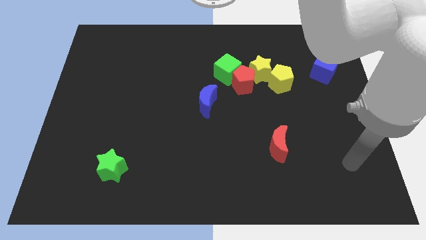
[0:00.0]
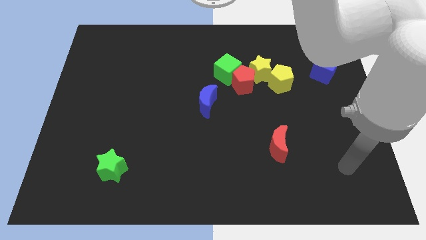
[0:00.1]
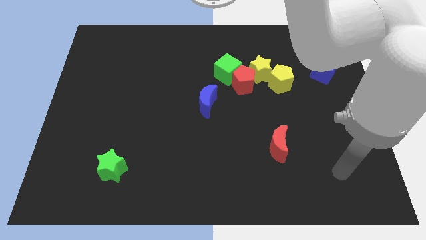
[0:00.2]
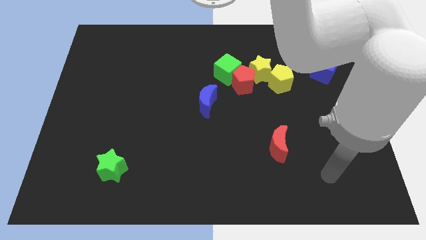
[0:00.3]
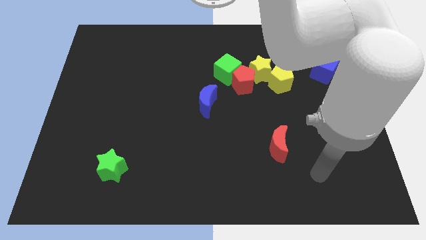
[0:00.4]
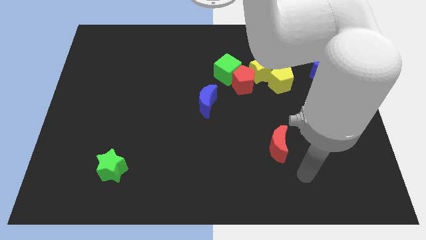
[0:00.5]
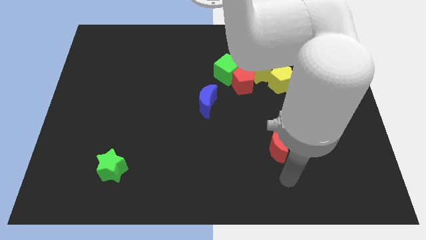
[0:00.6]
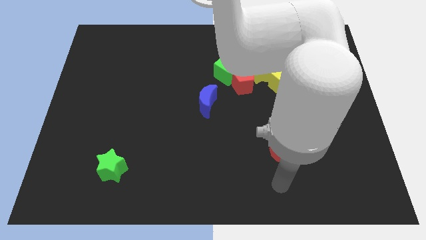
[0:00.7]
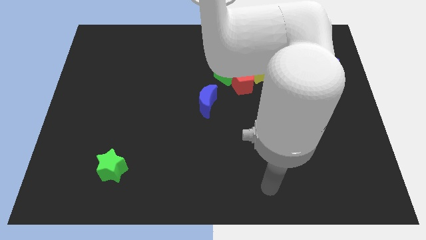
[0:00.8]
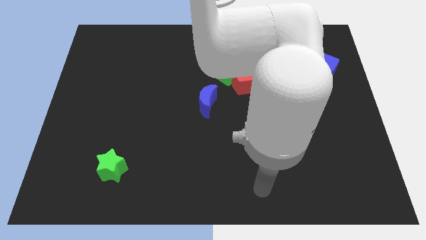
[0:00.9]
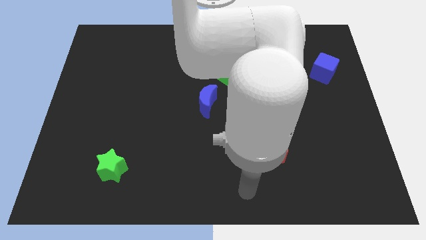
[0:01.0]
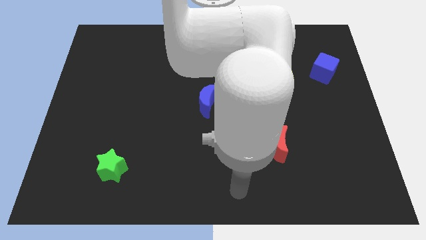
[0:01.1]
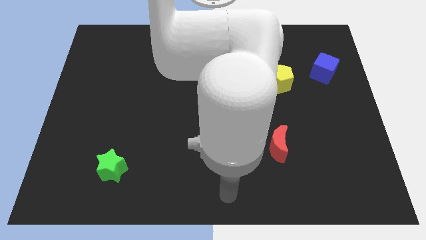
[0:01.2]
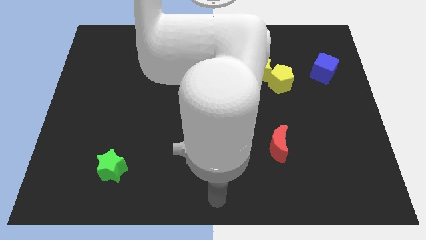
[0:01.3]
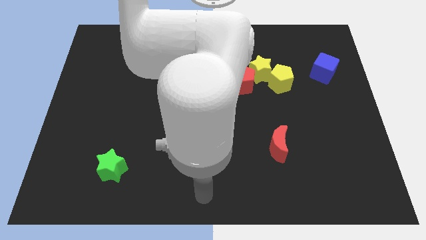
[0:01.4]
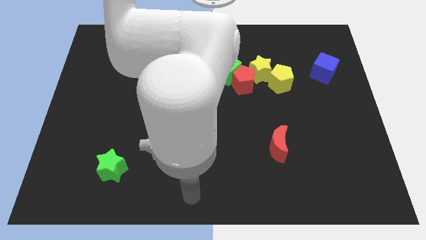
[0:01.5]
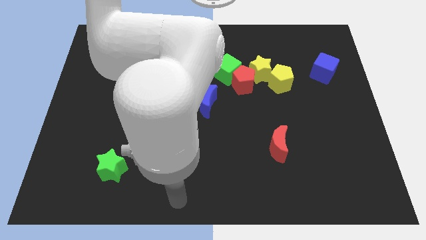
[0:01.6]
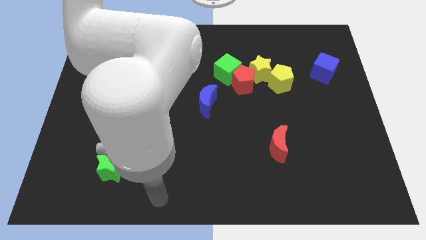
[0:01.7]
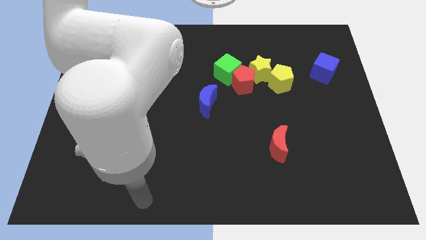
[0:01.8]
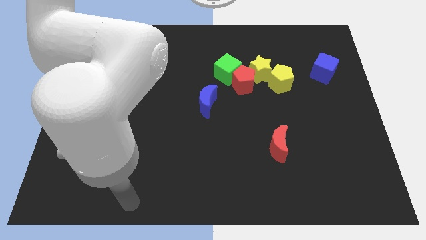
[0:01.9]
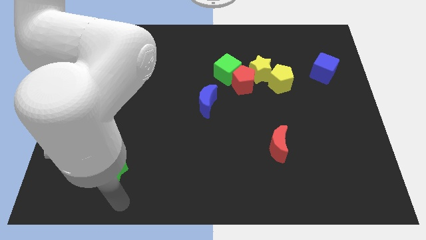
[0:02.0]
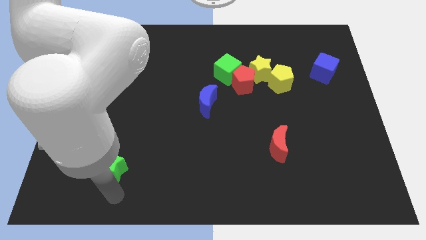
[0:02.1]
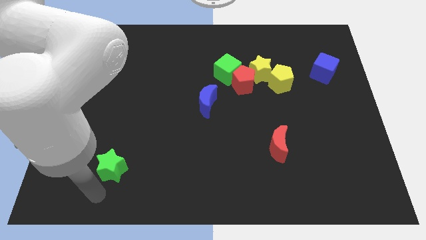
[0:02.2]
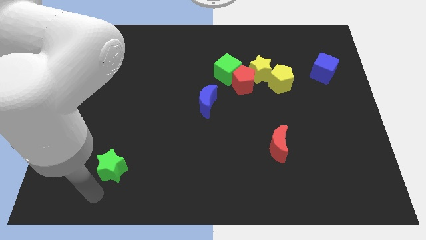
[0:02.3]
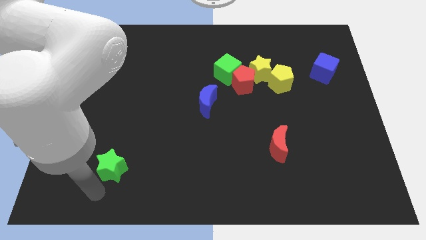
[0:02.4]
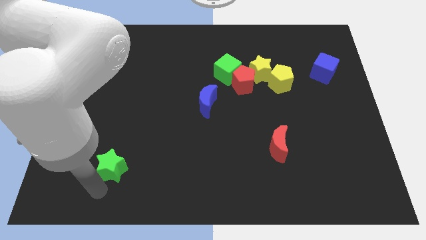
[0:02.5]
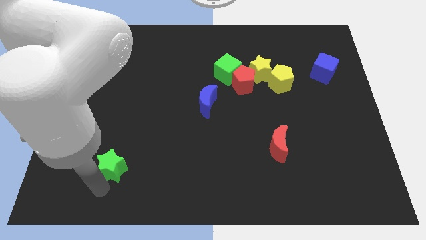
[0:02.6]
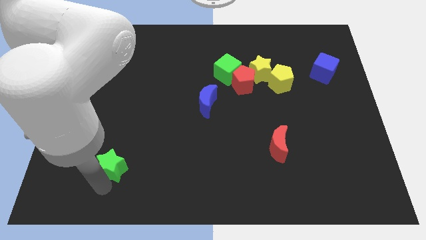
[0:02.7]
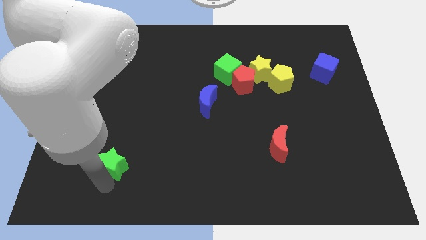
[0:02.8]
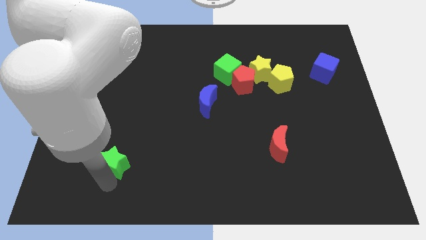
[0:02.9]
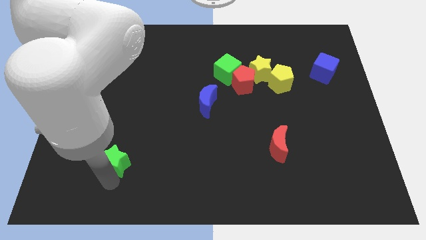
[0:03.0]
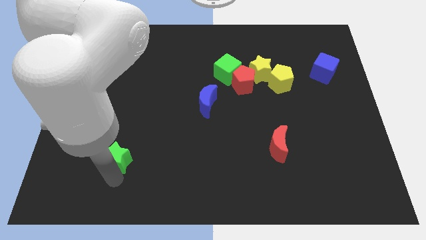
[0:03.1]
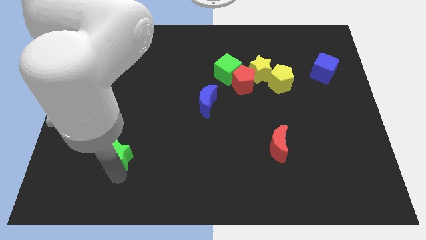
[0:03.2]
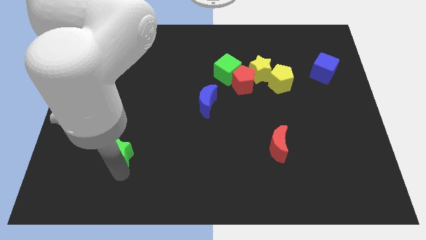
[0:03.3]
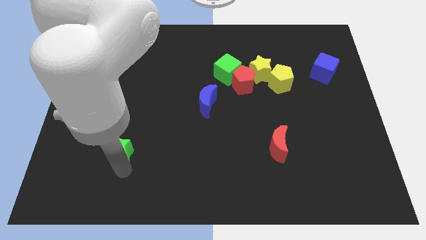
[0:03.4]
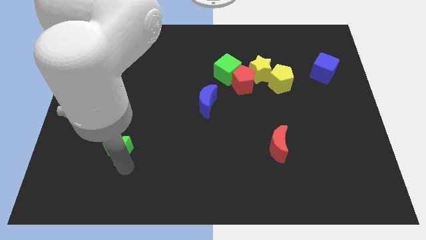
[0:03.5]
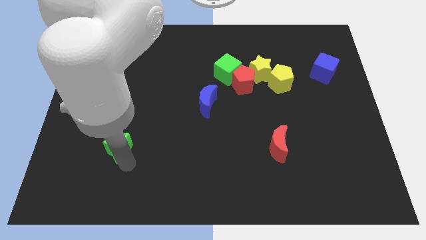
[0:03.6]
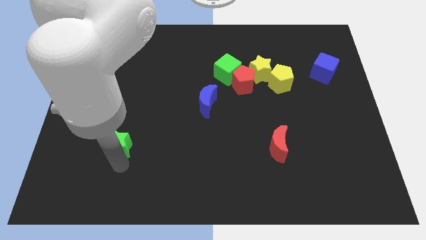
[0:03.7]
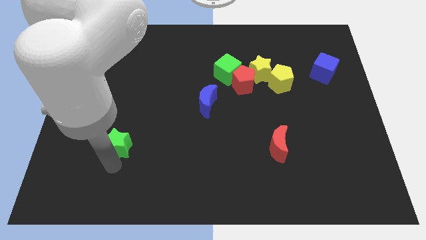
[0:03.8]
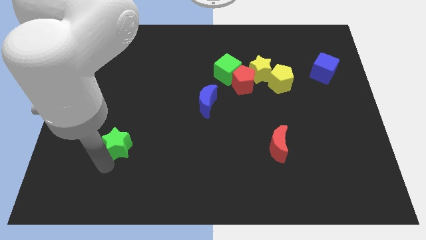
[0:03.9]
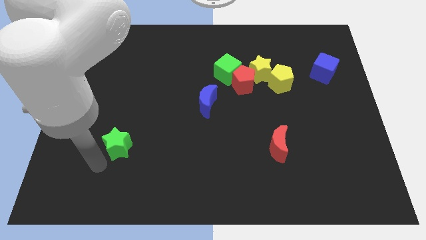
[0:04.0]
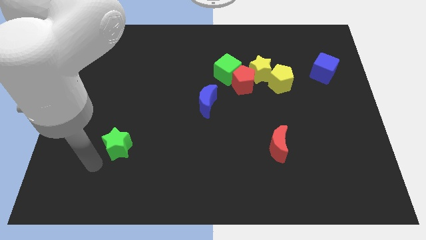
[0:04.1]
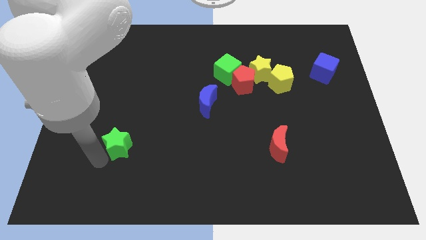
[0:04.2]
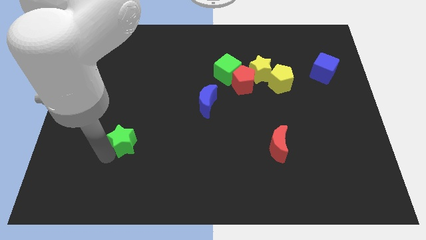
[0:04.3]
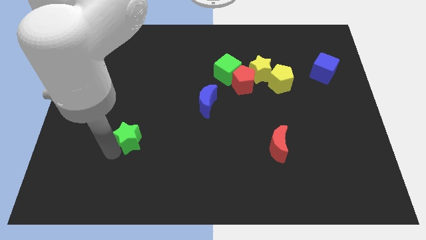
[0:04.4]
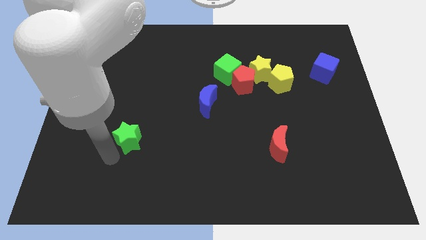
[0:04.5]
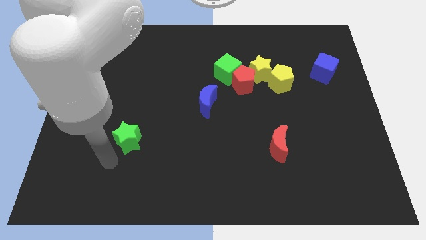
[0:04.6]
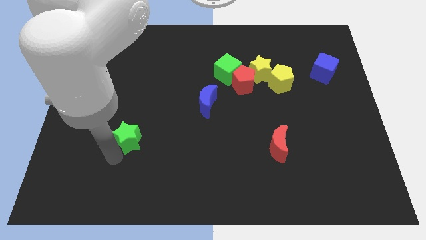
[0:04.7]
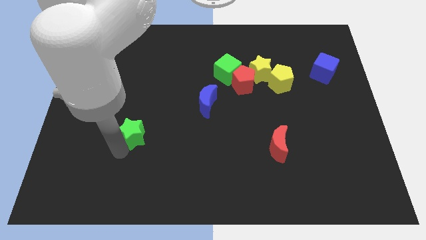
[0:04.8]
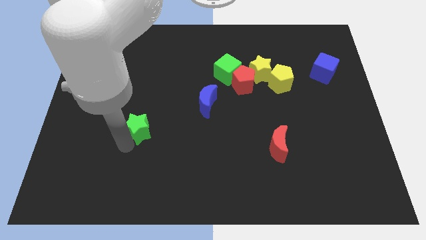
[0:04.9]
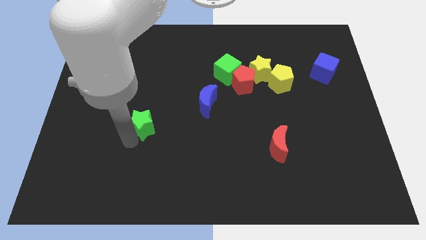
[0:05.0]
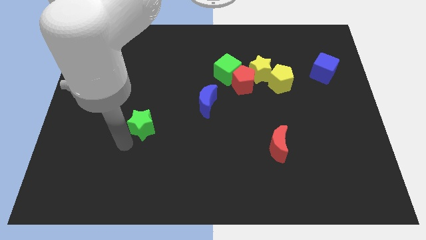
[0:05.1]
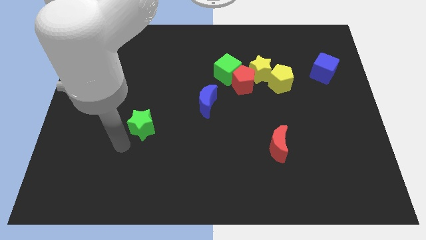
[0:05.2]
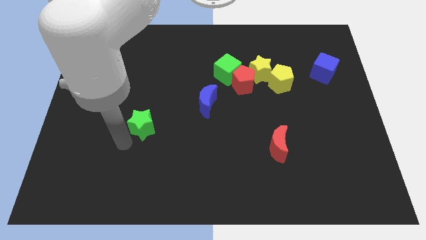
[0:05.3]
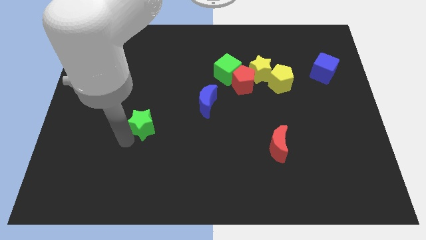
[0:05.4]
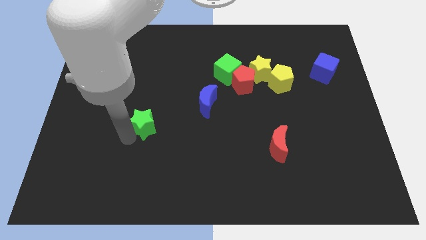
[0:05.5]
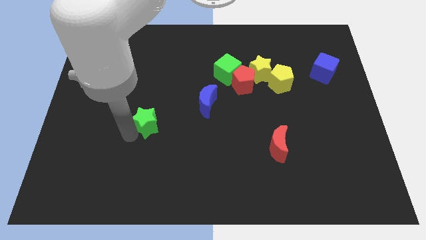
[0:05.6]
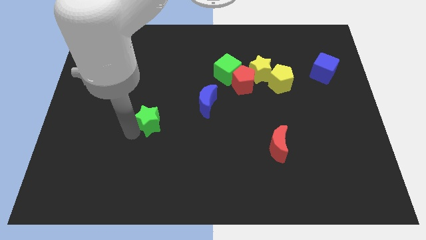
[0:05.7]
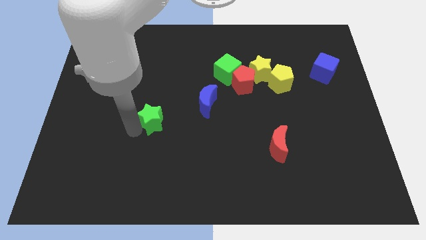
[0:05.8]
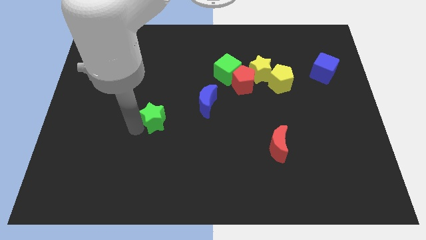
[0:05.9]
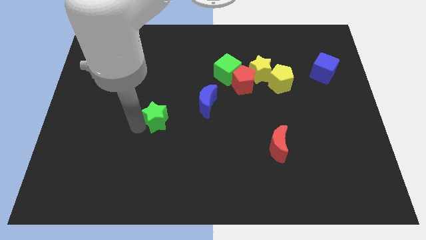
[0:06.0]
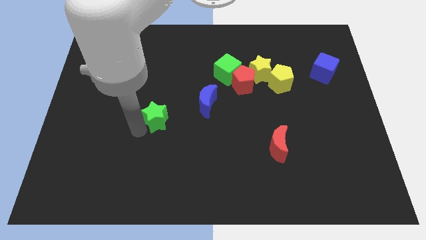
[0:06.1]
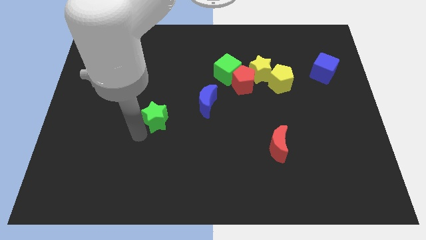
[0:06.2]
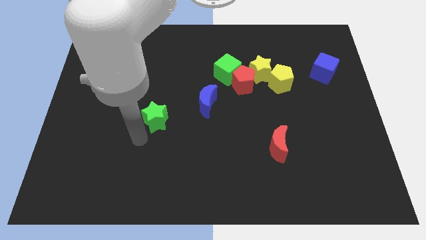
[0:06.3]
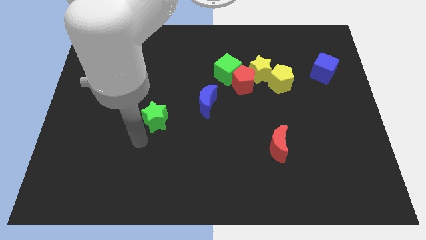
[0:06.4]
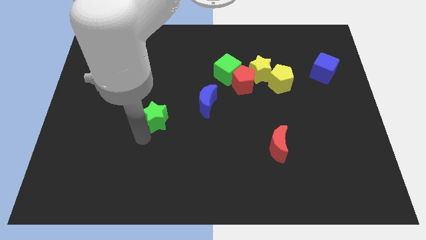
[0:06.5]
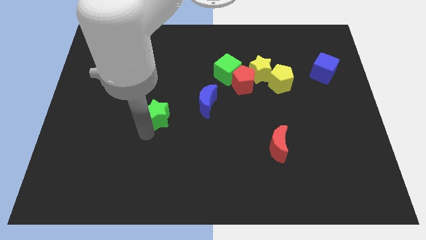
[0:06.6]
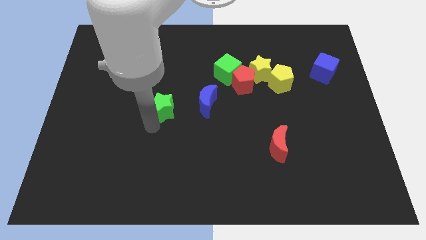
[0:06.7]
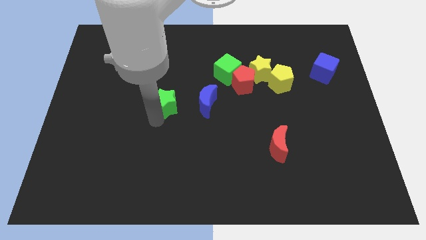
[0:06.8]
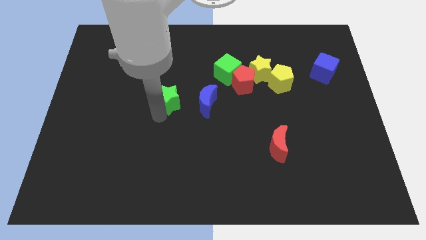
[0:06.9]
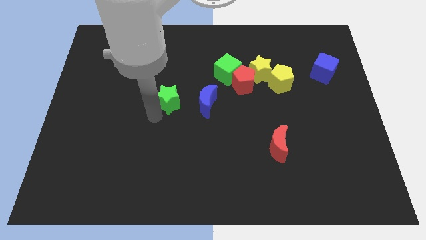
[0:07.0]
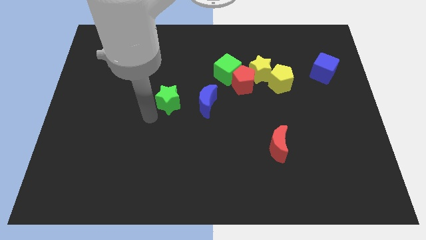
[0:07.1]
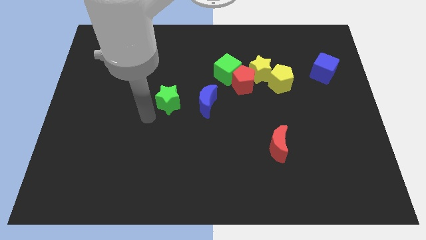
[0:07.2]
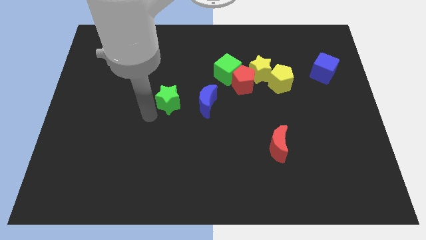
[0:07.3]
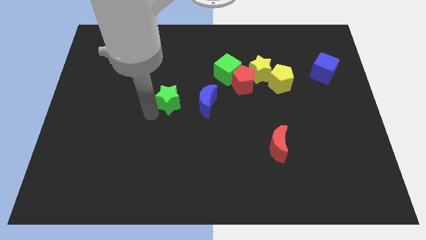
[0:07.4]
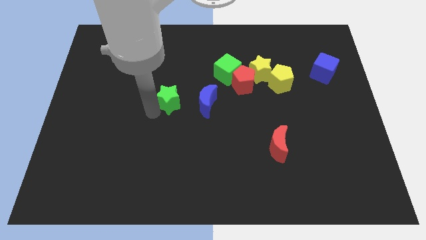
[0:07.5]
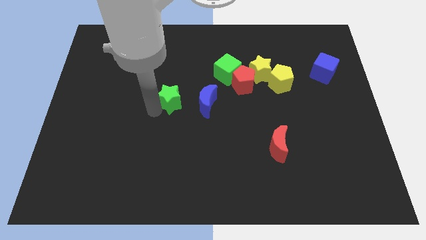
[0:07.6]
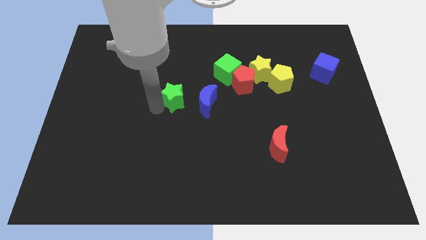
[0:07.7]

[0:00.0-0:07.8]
move the green star upwards and then right

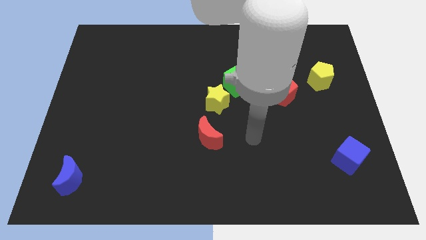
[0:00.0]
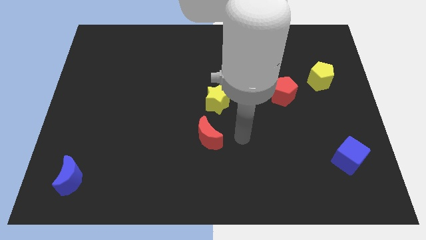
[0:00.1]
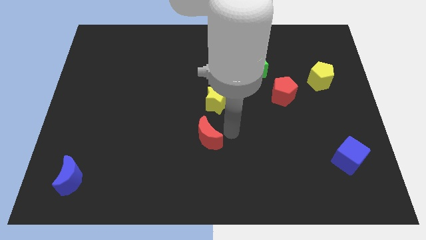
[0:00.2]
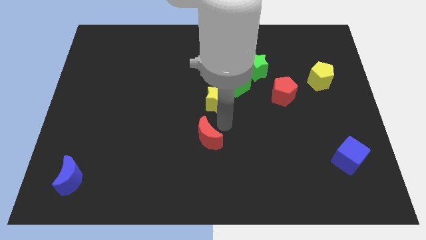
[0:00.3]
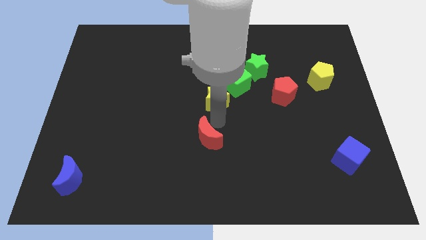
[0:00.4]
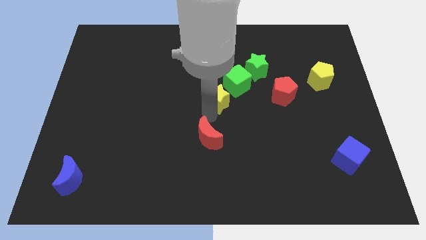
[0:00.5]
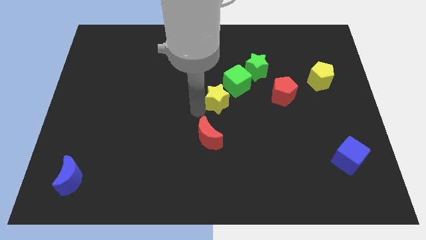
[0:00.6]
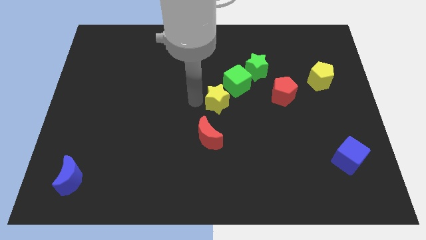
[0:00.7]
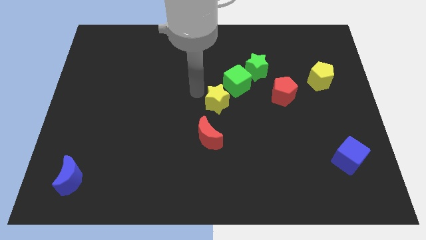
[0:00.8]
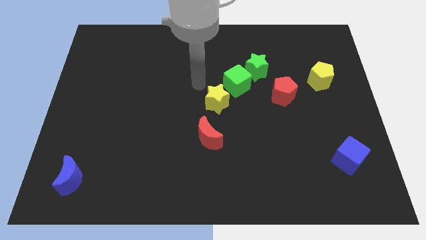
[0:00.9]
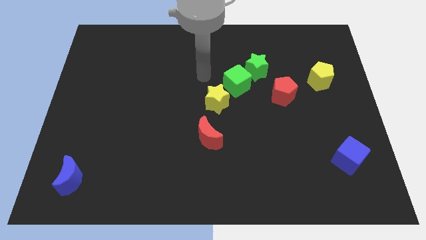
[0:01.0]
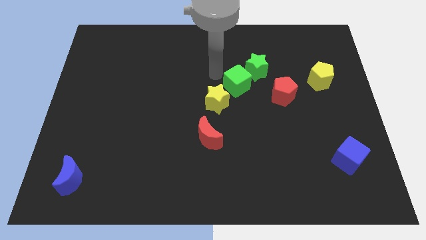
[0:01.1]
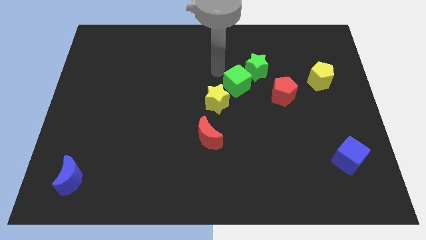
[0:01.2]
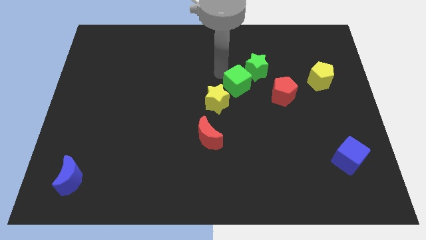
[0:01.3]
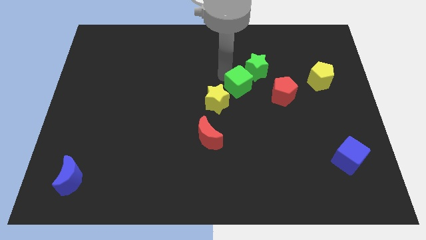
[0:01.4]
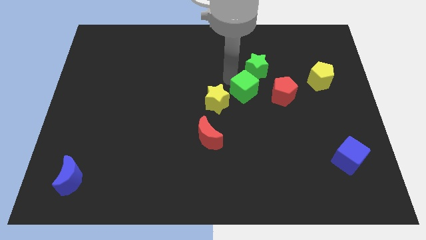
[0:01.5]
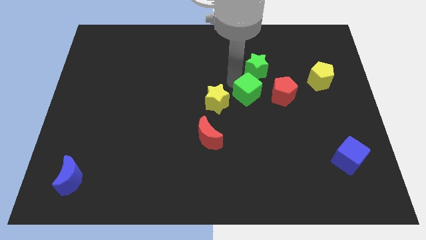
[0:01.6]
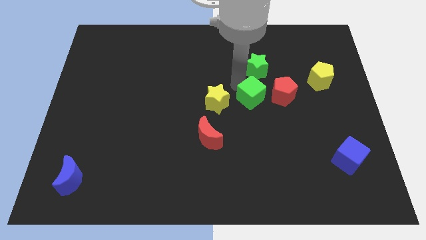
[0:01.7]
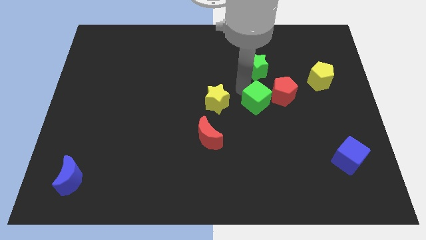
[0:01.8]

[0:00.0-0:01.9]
slightly slide the green cube downwards and right
